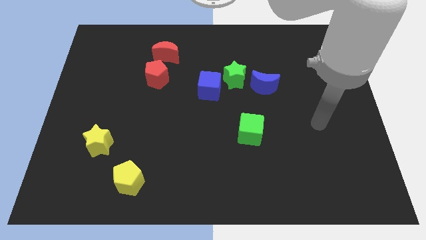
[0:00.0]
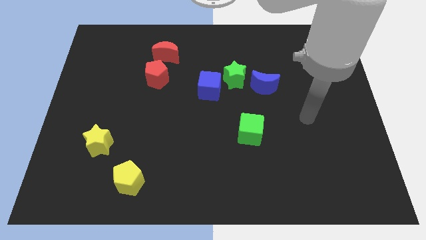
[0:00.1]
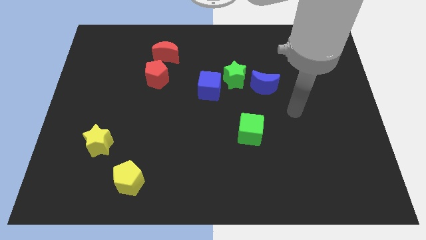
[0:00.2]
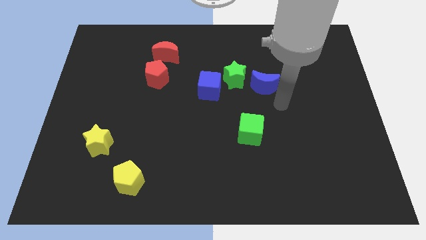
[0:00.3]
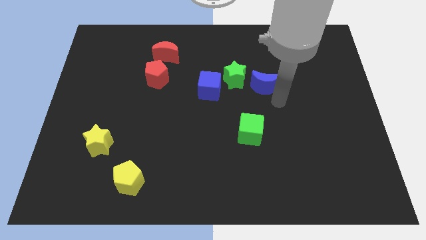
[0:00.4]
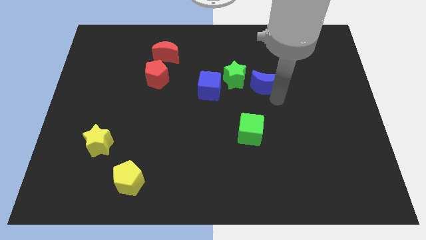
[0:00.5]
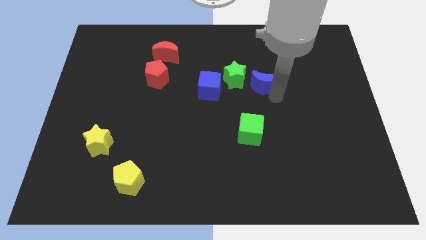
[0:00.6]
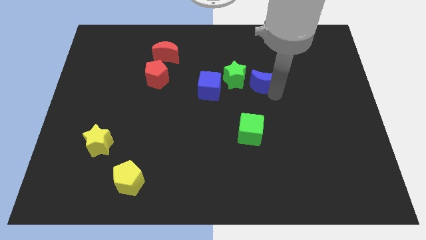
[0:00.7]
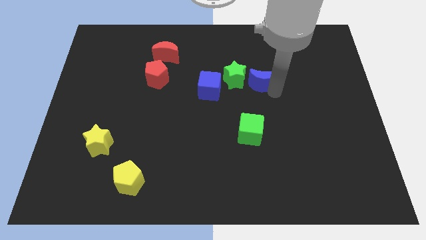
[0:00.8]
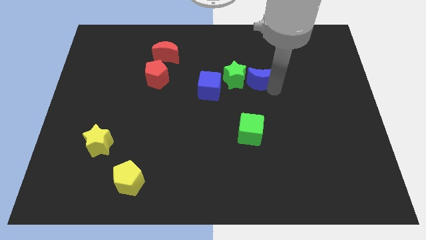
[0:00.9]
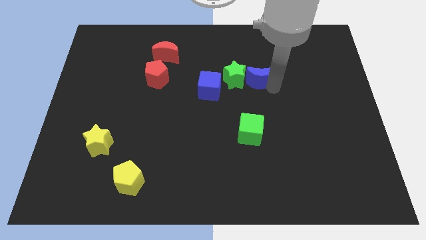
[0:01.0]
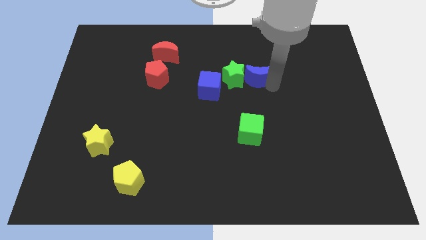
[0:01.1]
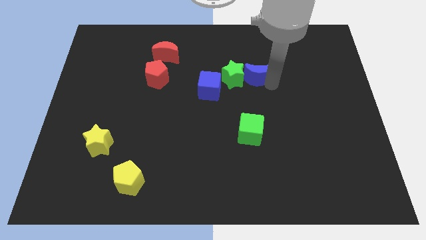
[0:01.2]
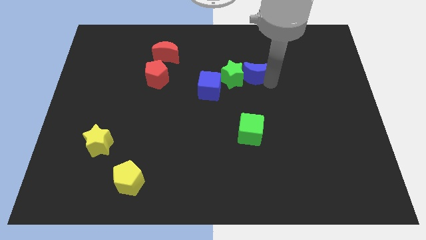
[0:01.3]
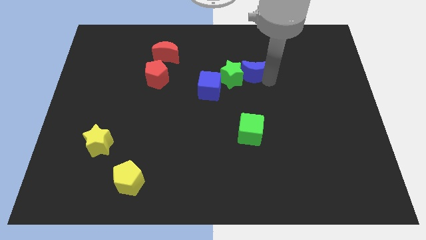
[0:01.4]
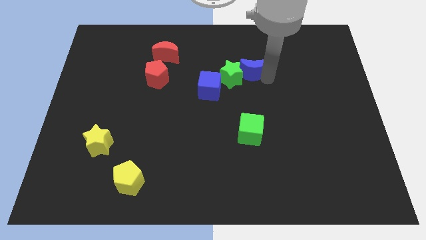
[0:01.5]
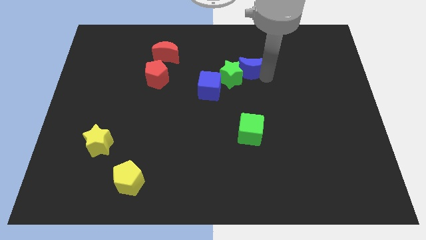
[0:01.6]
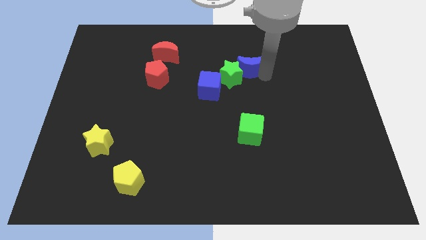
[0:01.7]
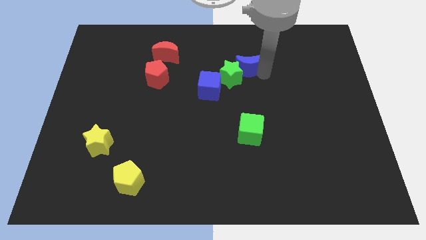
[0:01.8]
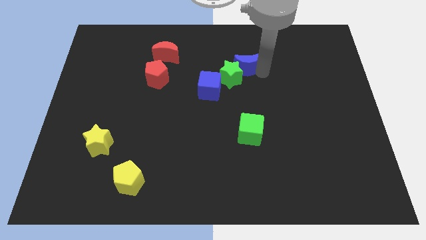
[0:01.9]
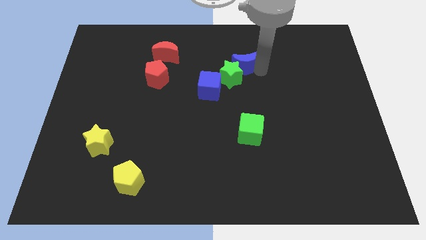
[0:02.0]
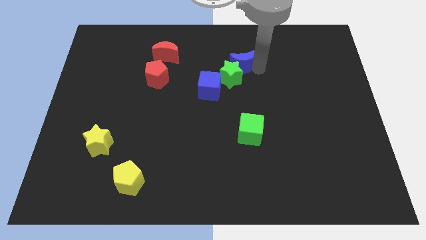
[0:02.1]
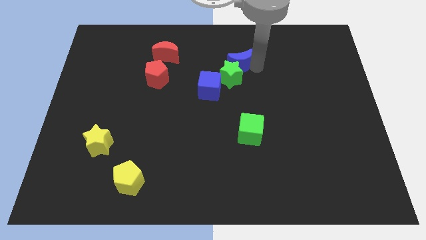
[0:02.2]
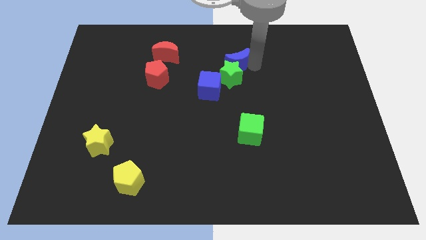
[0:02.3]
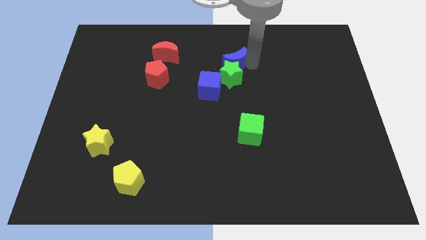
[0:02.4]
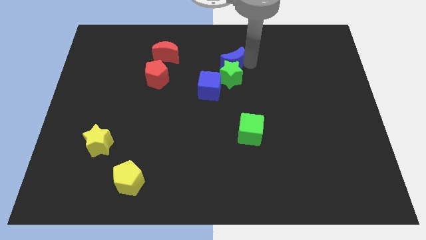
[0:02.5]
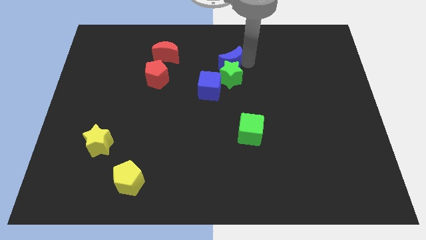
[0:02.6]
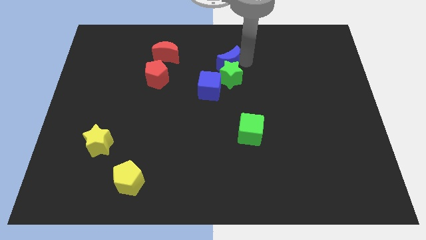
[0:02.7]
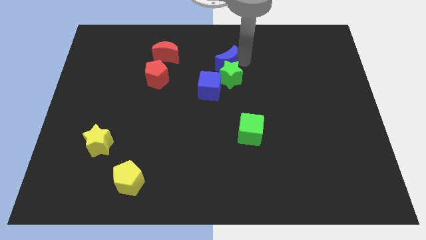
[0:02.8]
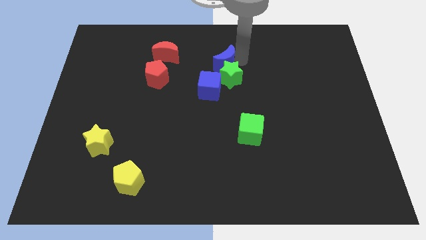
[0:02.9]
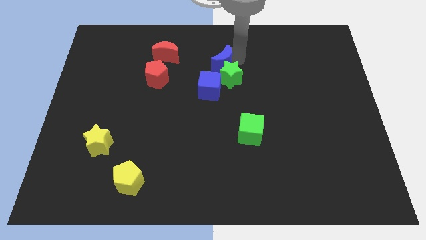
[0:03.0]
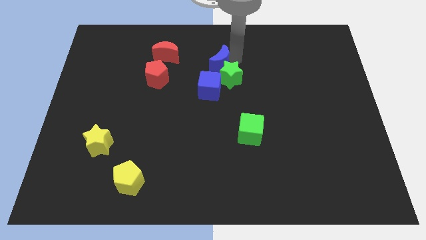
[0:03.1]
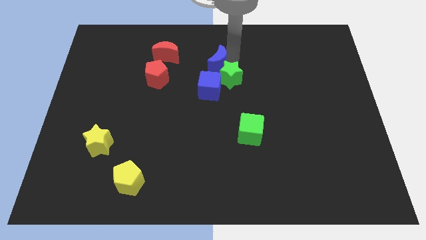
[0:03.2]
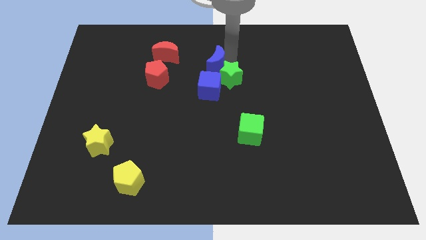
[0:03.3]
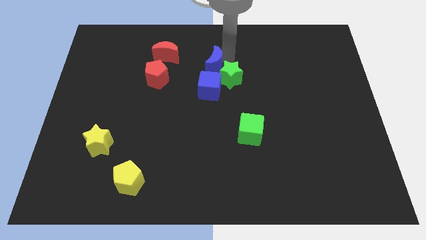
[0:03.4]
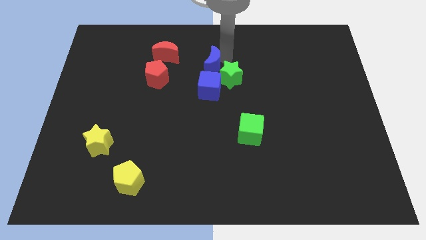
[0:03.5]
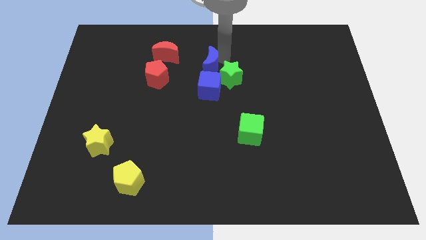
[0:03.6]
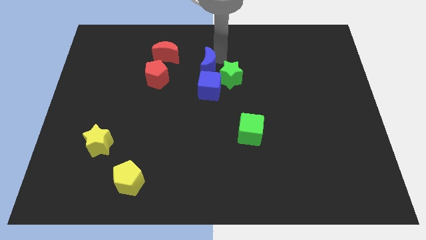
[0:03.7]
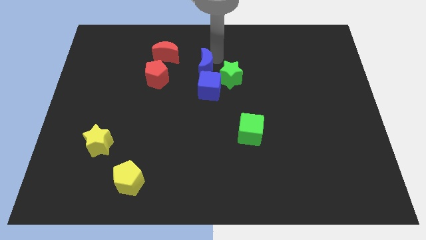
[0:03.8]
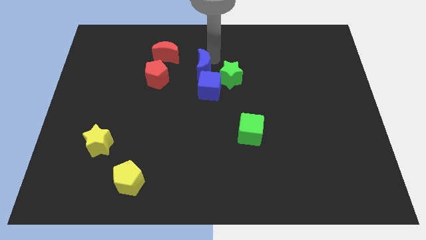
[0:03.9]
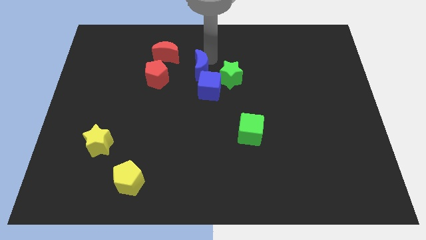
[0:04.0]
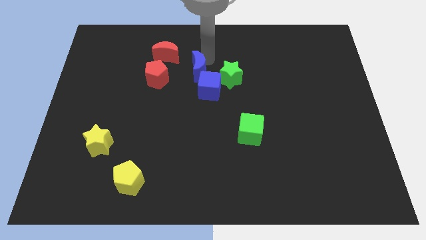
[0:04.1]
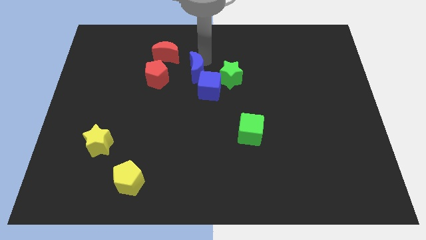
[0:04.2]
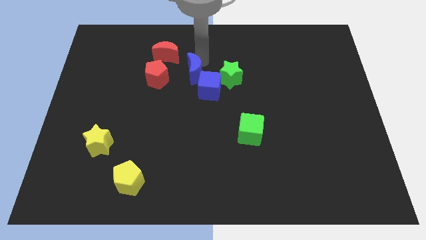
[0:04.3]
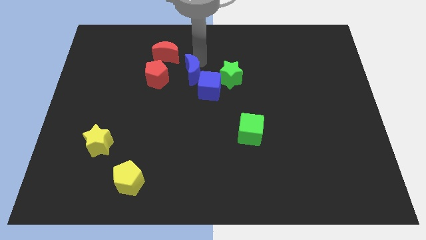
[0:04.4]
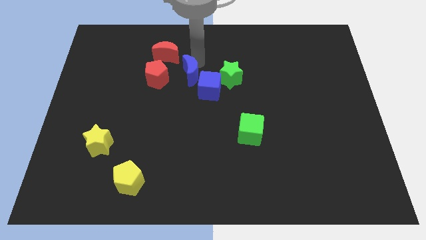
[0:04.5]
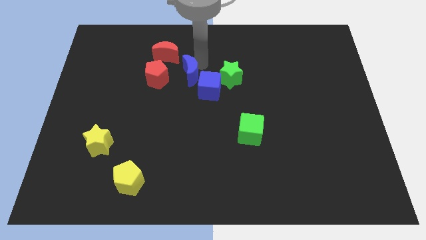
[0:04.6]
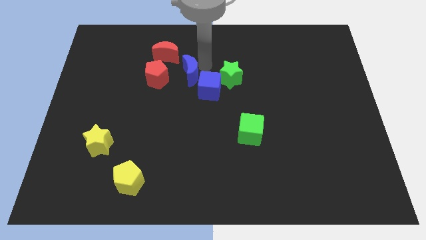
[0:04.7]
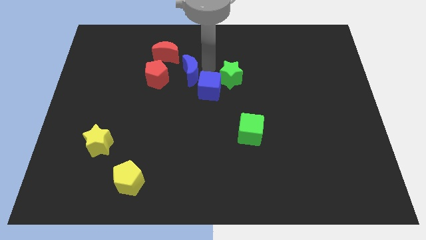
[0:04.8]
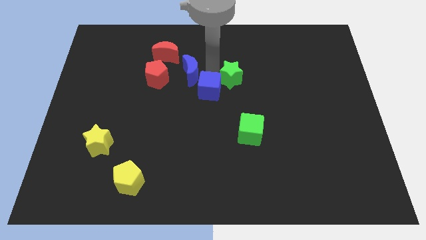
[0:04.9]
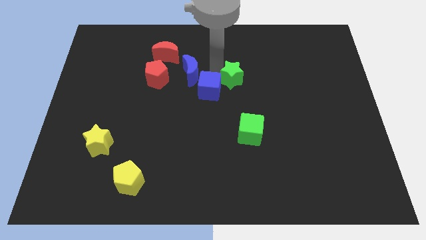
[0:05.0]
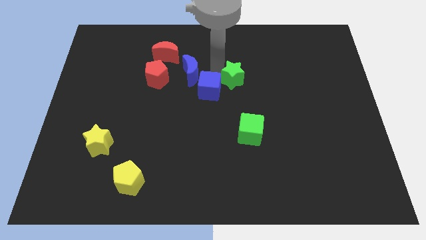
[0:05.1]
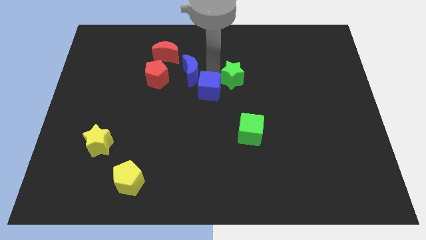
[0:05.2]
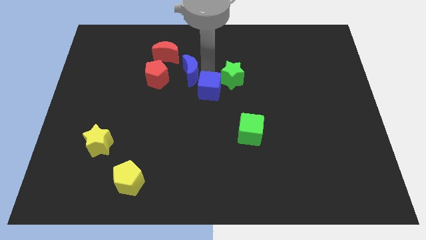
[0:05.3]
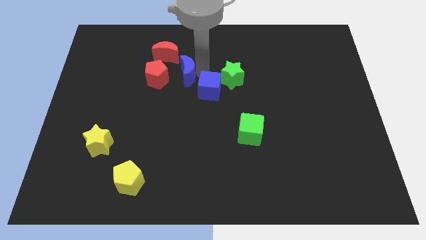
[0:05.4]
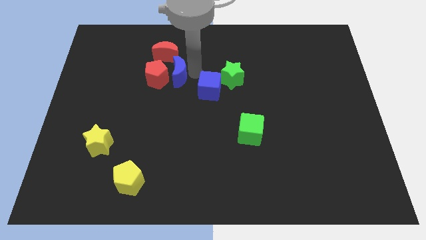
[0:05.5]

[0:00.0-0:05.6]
push the blue moon to the red pentagon

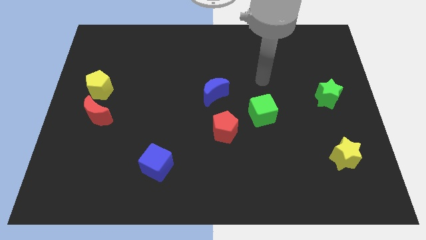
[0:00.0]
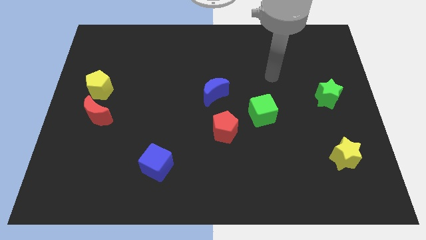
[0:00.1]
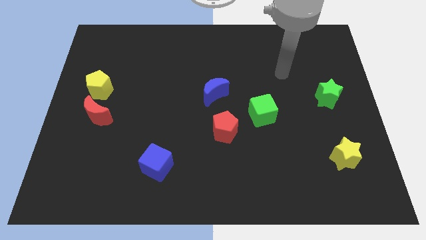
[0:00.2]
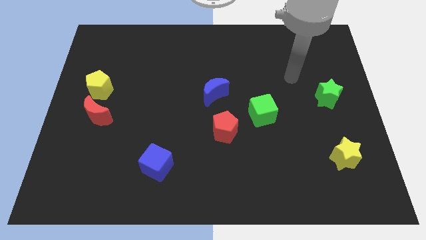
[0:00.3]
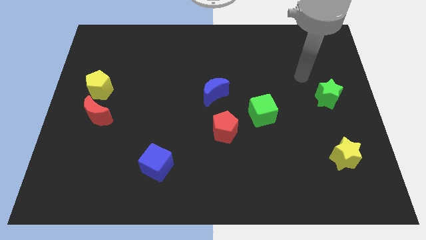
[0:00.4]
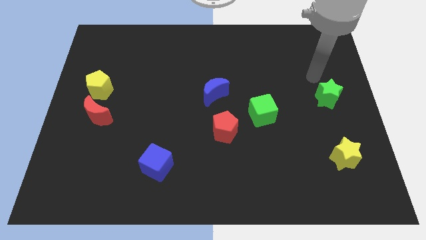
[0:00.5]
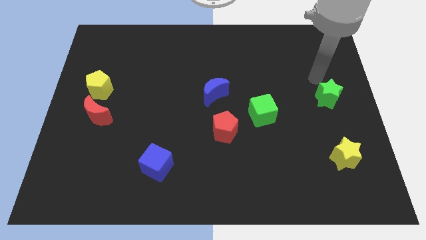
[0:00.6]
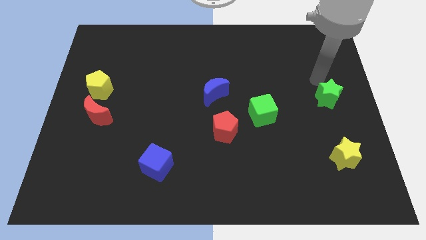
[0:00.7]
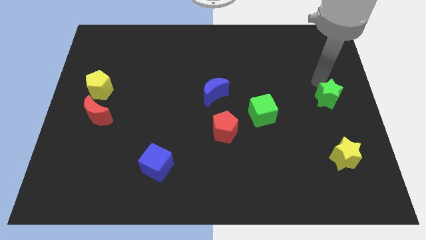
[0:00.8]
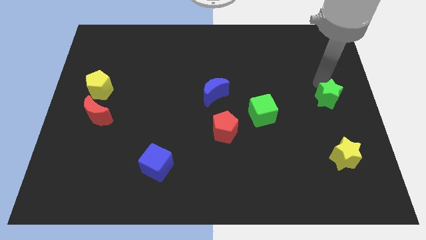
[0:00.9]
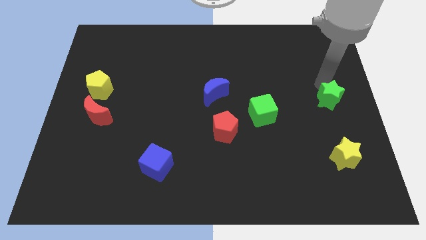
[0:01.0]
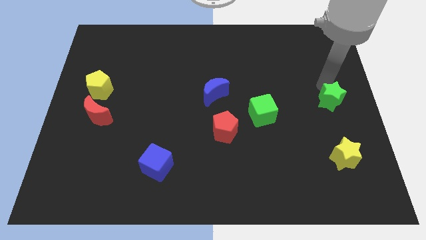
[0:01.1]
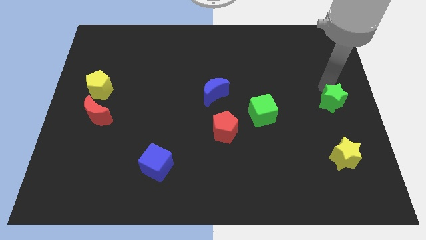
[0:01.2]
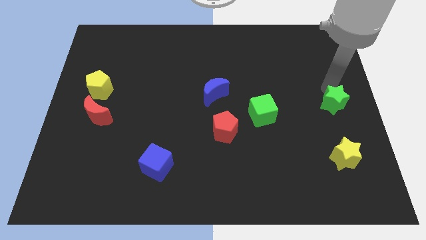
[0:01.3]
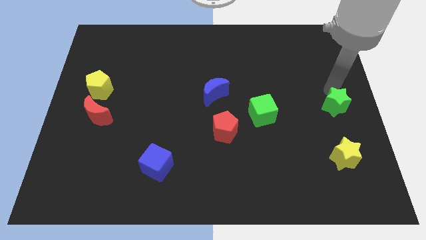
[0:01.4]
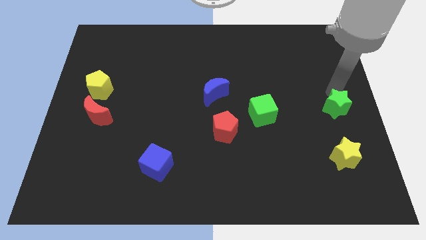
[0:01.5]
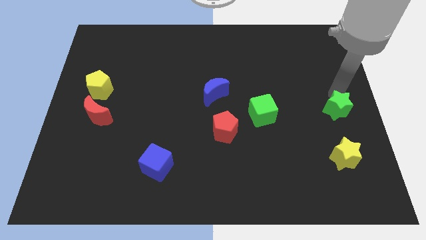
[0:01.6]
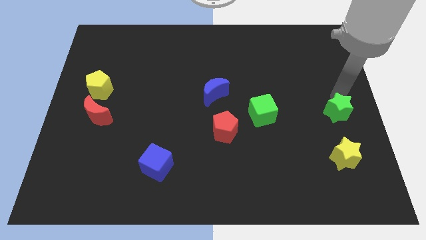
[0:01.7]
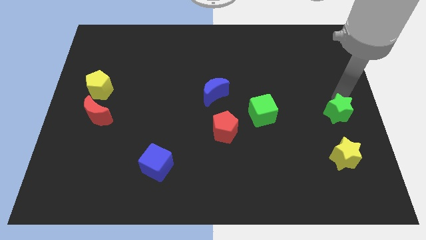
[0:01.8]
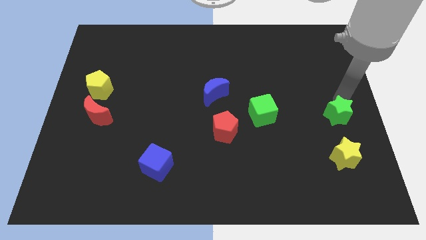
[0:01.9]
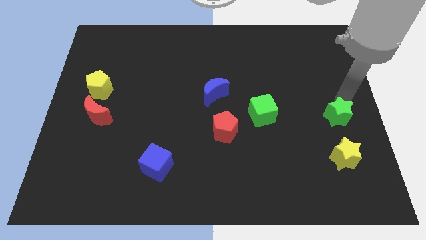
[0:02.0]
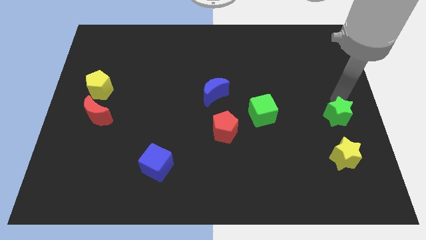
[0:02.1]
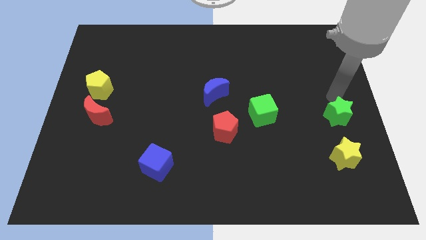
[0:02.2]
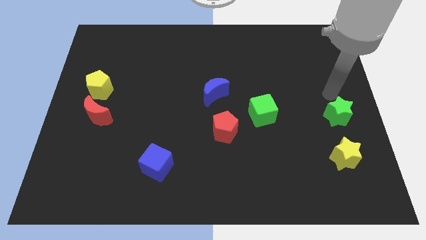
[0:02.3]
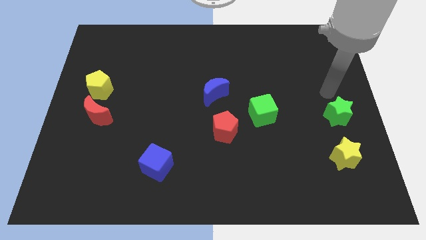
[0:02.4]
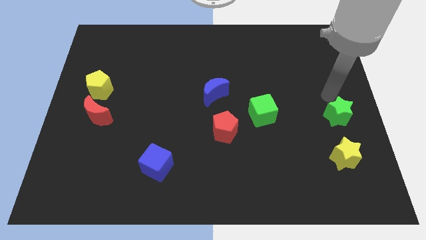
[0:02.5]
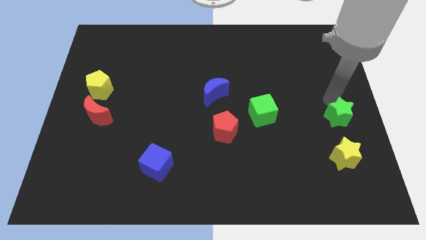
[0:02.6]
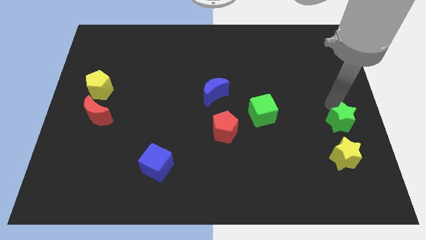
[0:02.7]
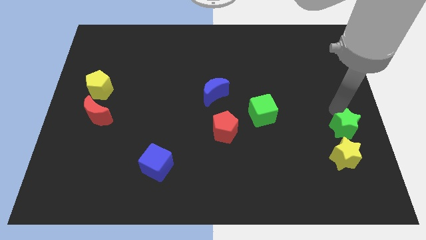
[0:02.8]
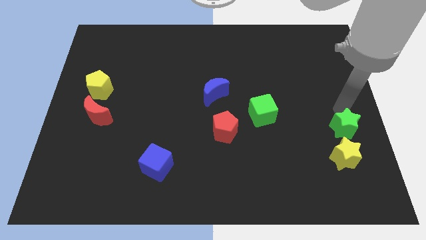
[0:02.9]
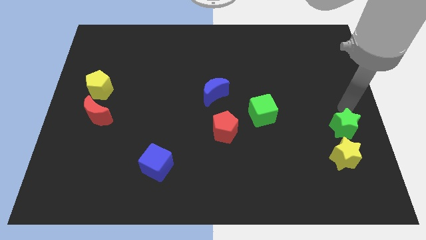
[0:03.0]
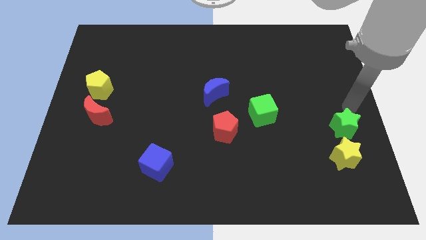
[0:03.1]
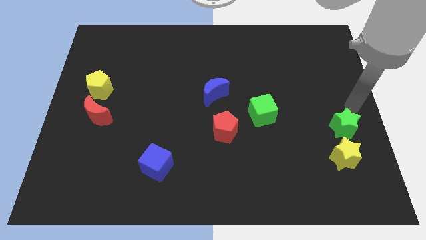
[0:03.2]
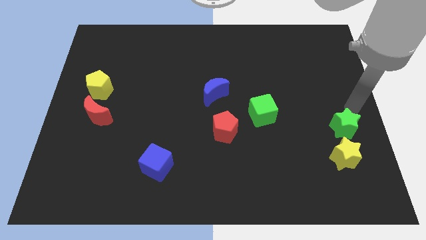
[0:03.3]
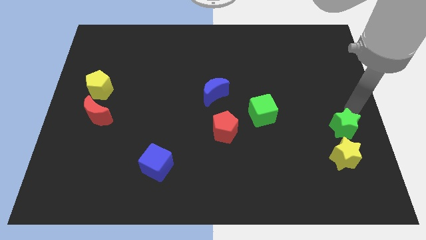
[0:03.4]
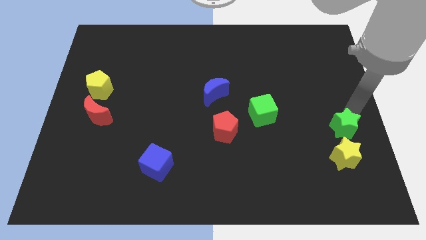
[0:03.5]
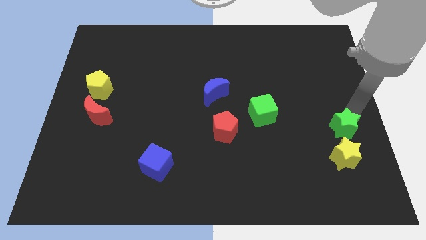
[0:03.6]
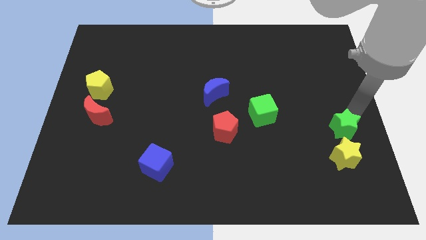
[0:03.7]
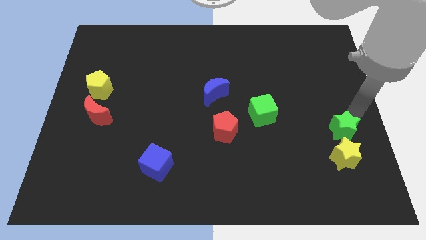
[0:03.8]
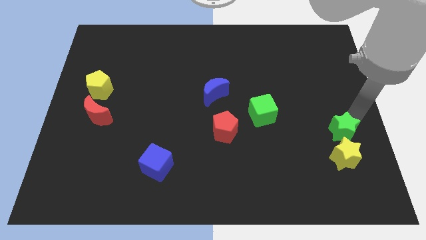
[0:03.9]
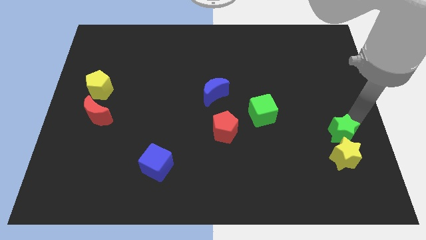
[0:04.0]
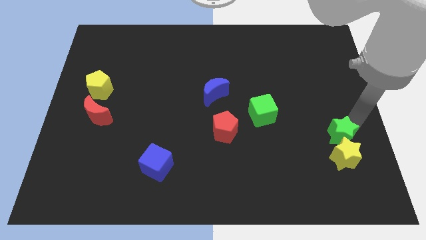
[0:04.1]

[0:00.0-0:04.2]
push the green star towards the yellow star
